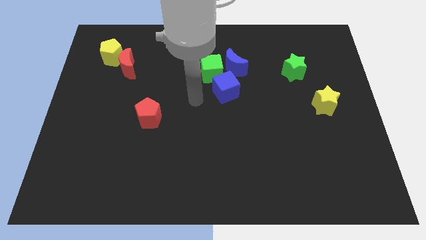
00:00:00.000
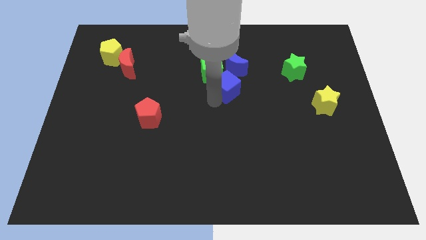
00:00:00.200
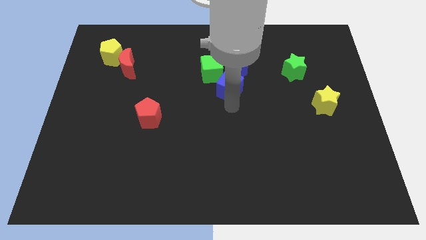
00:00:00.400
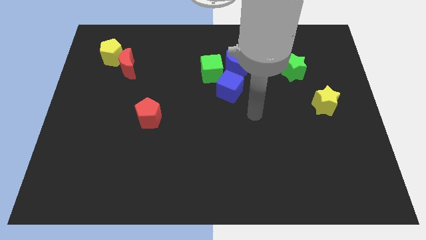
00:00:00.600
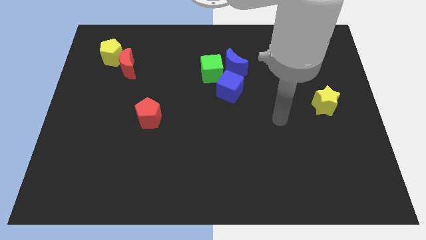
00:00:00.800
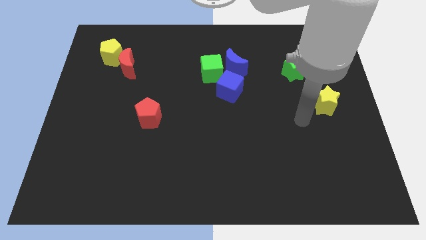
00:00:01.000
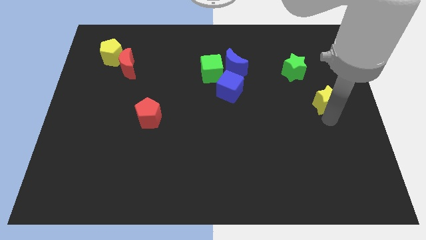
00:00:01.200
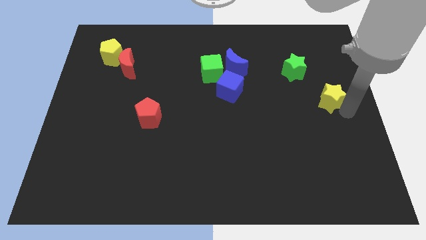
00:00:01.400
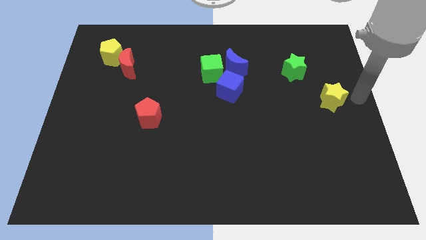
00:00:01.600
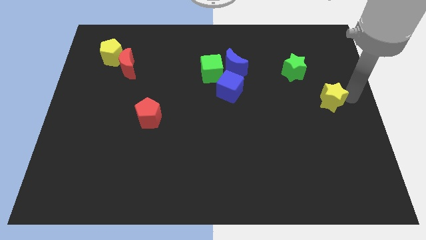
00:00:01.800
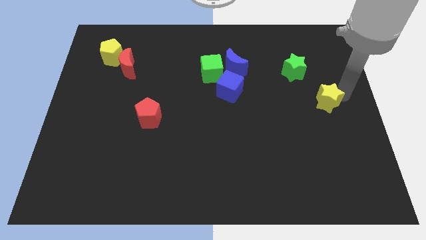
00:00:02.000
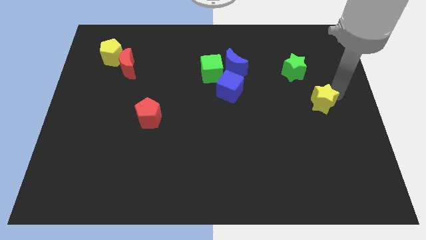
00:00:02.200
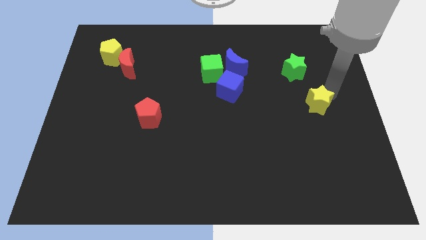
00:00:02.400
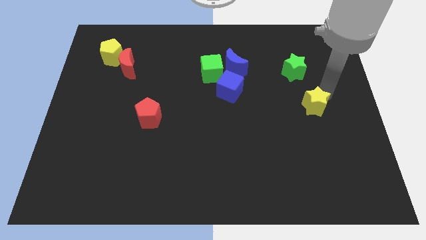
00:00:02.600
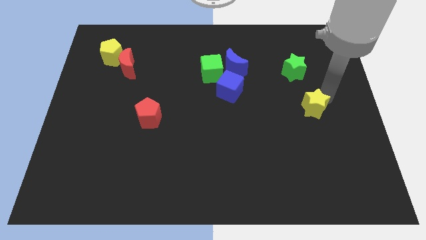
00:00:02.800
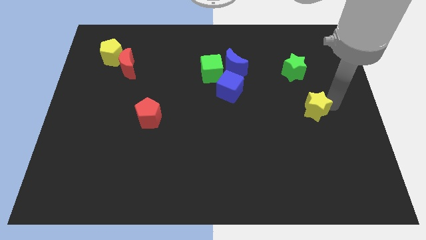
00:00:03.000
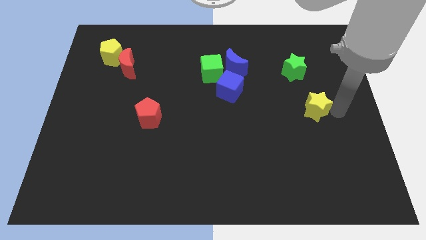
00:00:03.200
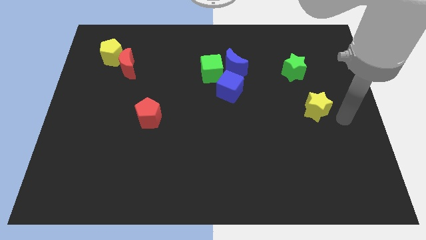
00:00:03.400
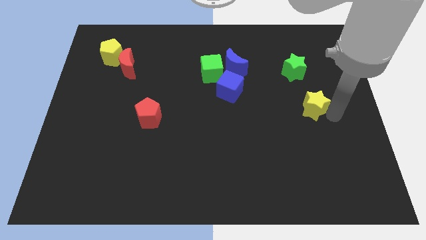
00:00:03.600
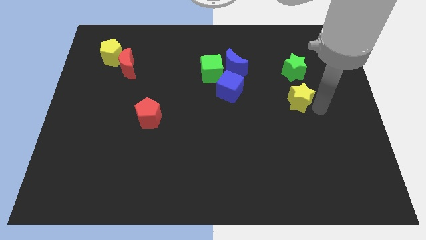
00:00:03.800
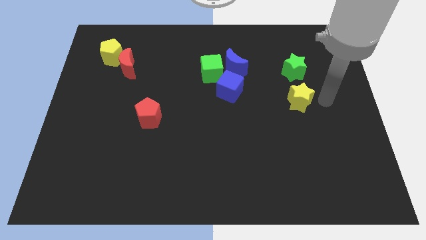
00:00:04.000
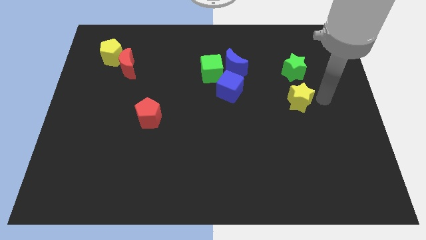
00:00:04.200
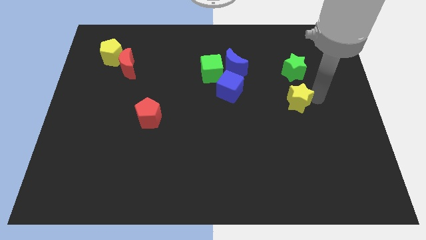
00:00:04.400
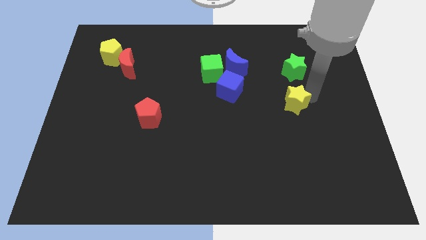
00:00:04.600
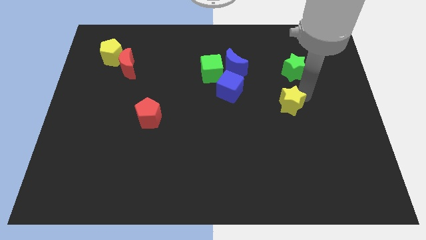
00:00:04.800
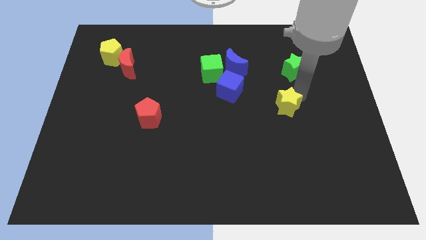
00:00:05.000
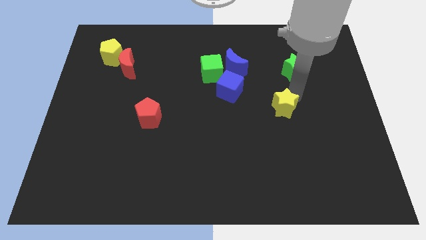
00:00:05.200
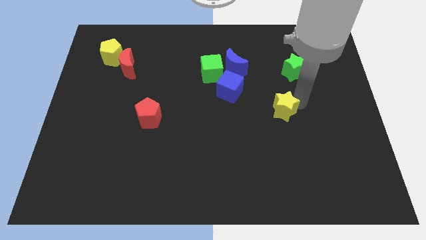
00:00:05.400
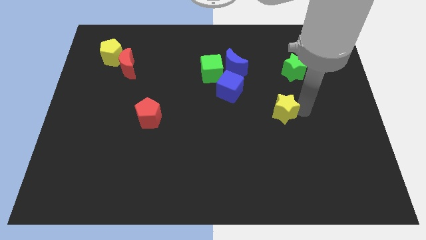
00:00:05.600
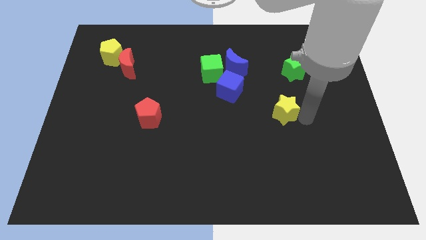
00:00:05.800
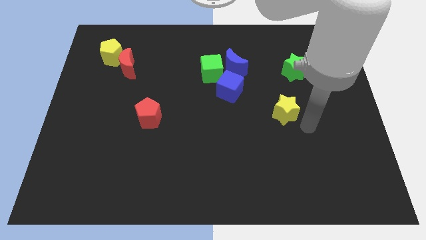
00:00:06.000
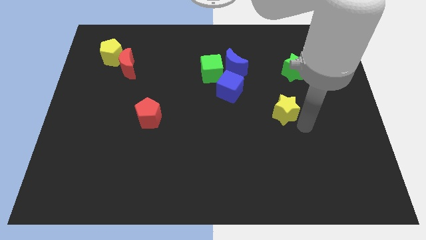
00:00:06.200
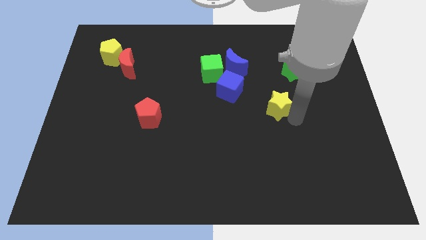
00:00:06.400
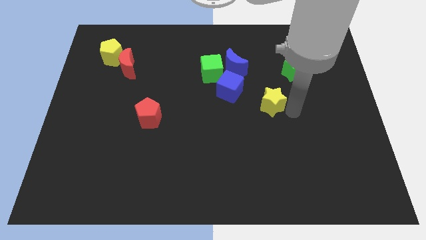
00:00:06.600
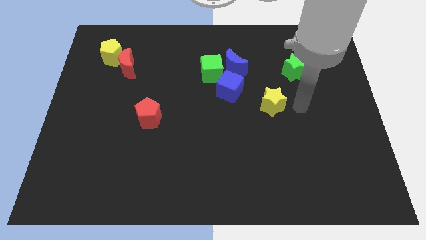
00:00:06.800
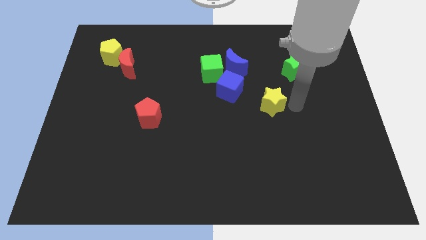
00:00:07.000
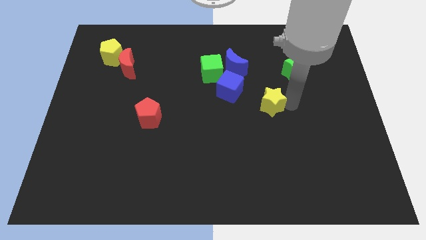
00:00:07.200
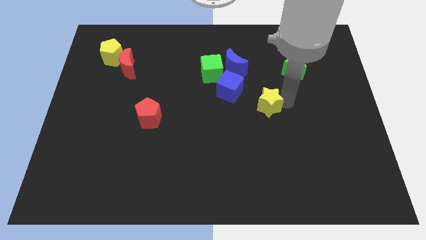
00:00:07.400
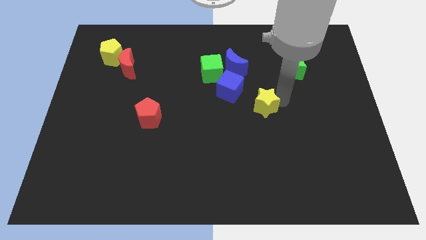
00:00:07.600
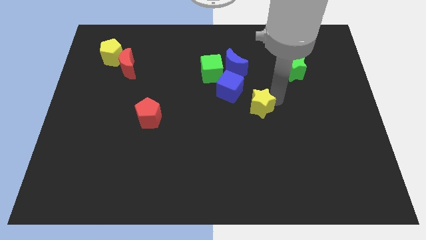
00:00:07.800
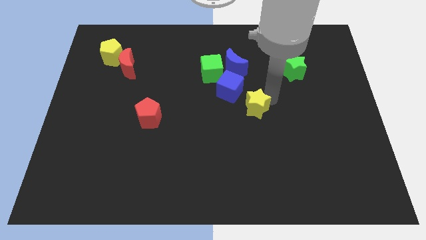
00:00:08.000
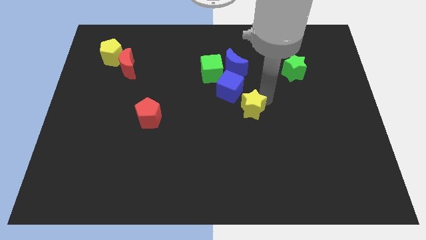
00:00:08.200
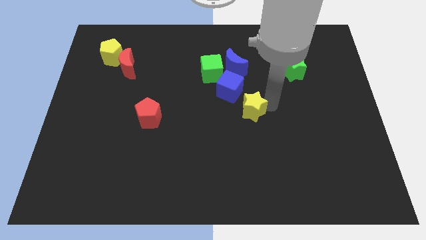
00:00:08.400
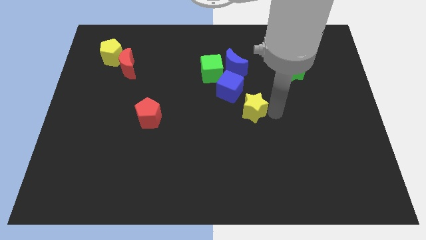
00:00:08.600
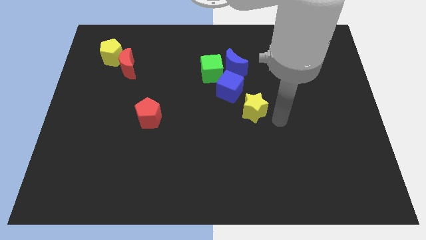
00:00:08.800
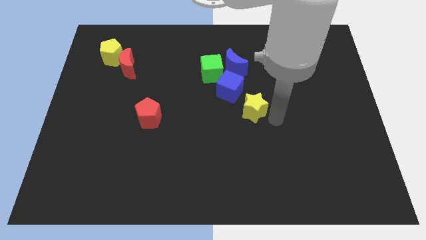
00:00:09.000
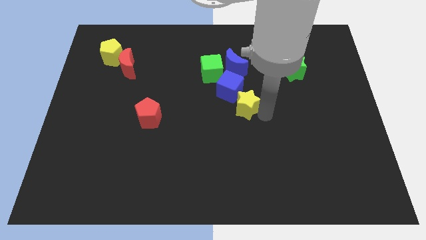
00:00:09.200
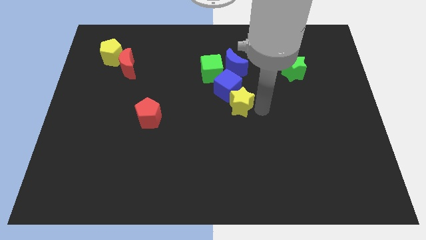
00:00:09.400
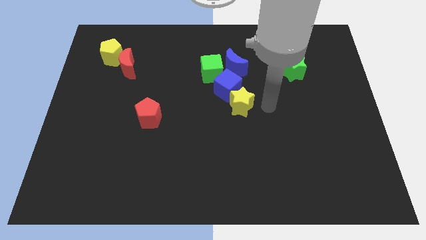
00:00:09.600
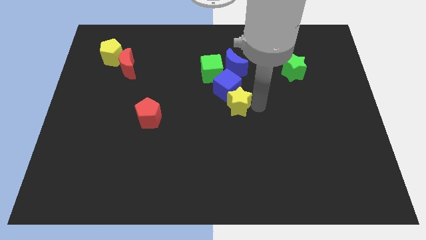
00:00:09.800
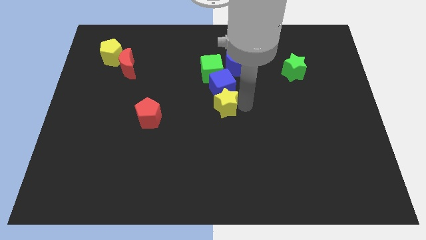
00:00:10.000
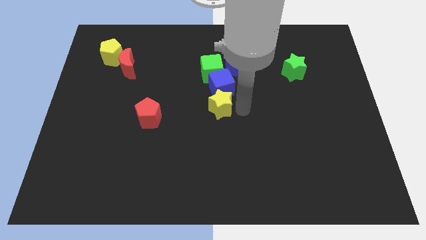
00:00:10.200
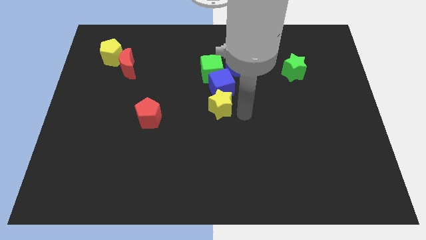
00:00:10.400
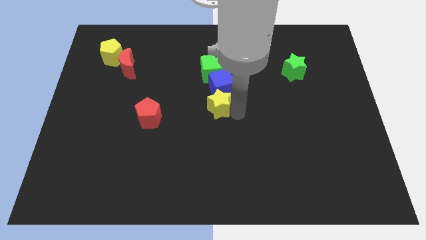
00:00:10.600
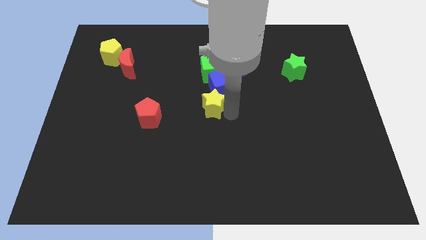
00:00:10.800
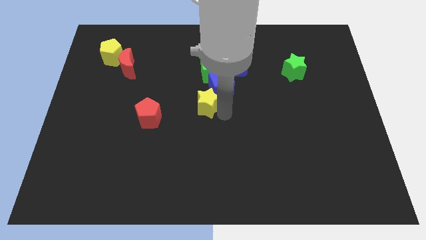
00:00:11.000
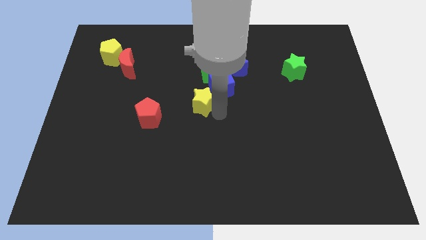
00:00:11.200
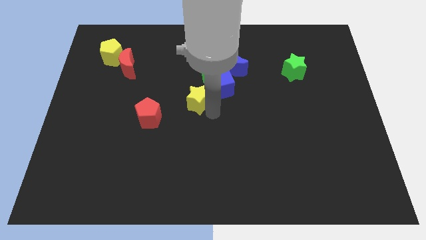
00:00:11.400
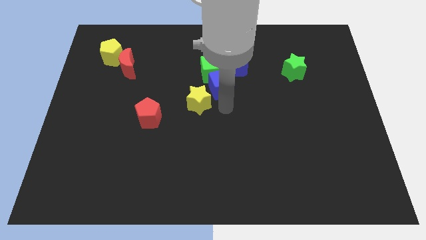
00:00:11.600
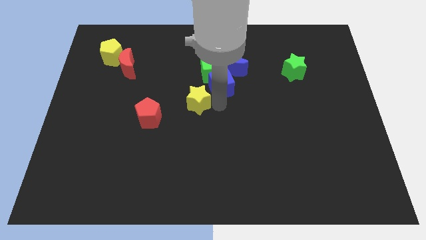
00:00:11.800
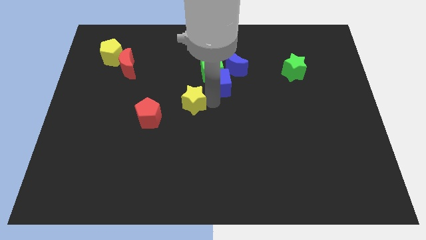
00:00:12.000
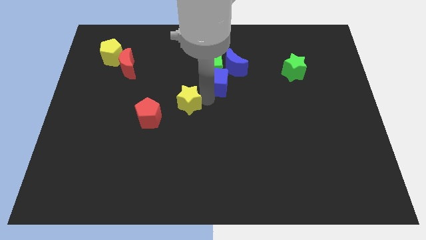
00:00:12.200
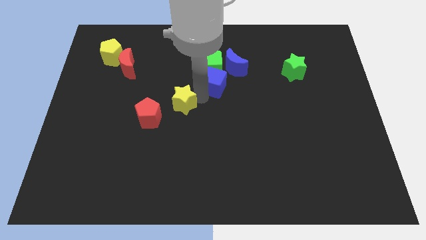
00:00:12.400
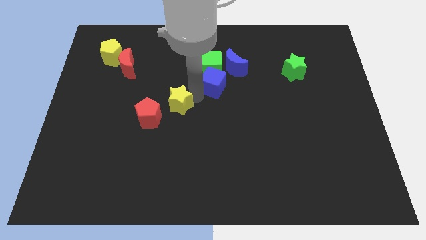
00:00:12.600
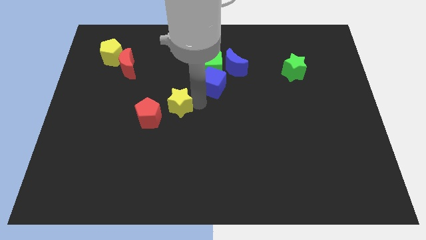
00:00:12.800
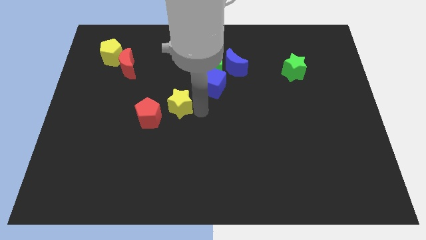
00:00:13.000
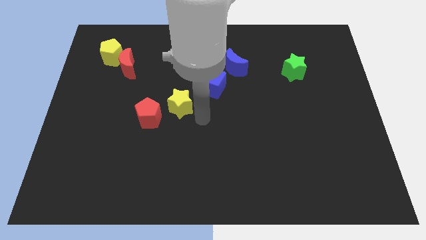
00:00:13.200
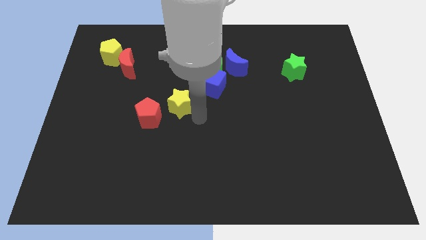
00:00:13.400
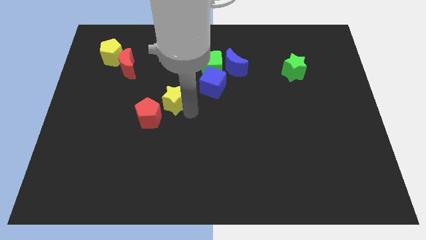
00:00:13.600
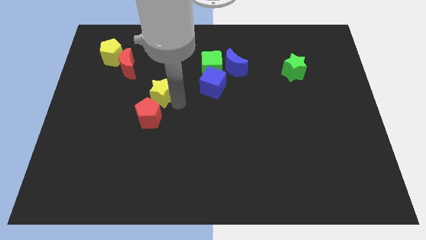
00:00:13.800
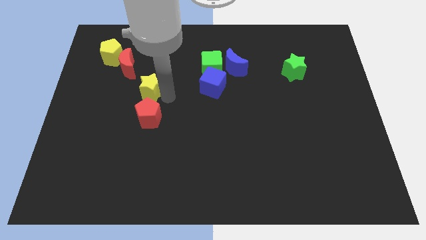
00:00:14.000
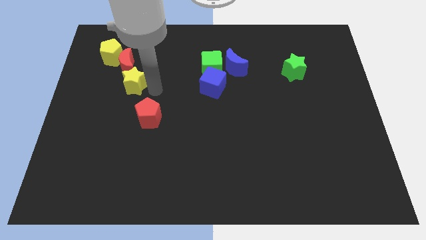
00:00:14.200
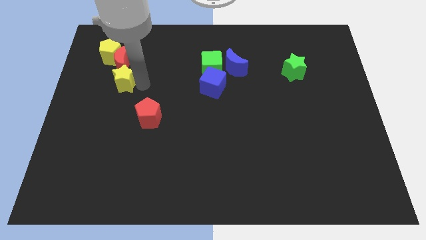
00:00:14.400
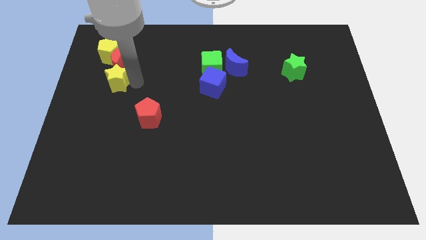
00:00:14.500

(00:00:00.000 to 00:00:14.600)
slide the yellow star below the yellow pentagon
